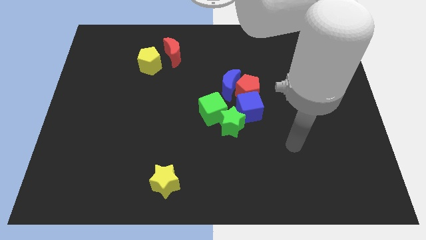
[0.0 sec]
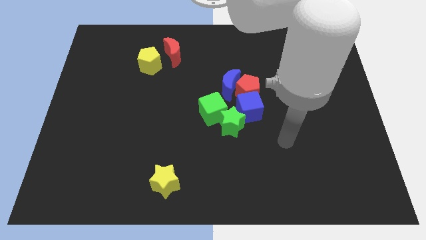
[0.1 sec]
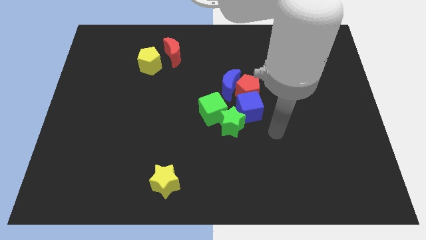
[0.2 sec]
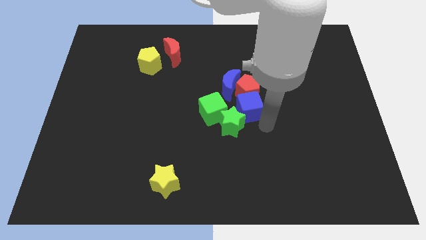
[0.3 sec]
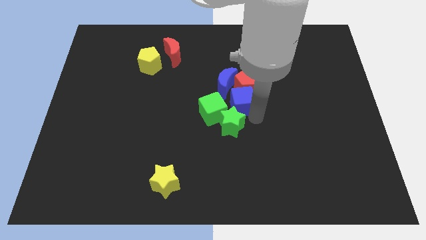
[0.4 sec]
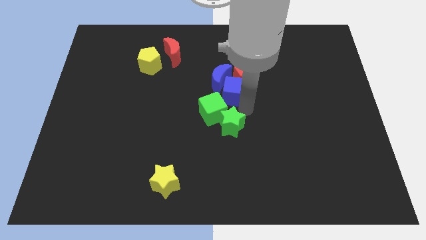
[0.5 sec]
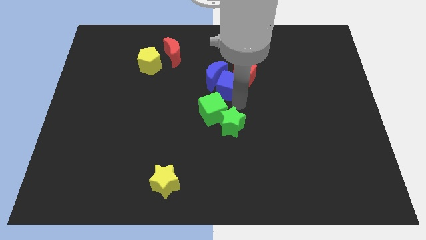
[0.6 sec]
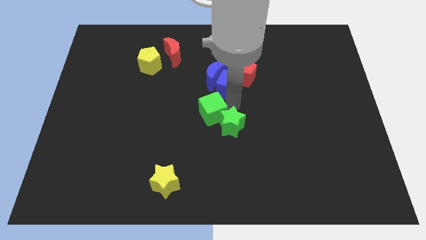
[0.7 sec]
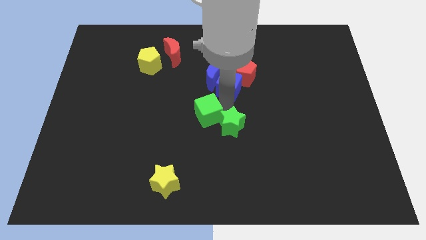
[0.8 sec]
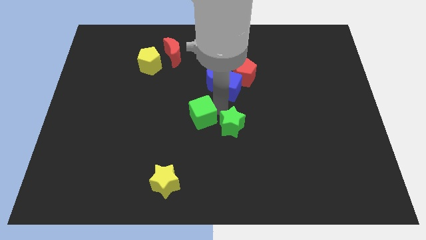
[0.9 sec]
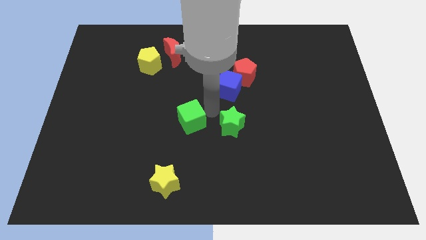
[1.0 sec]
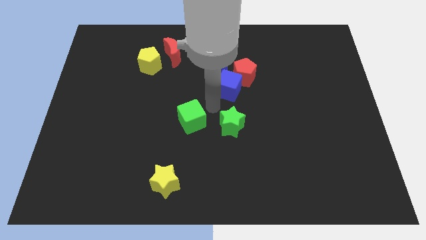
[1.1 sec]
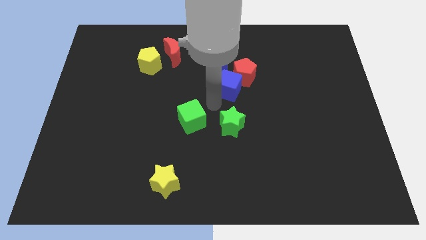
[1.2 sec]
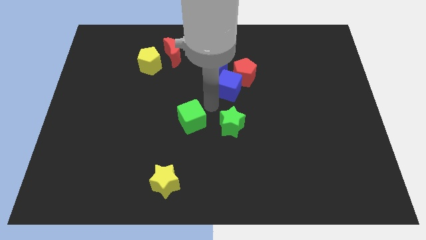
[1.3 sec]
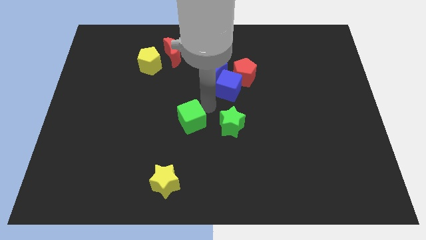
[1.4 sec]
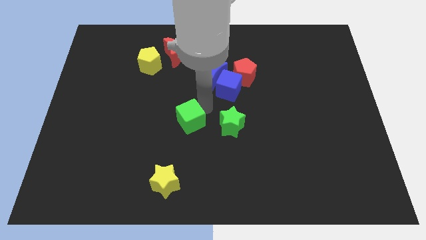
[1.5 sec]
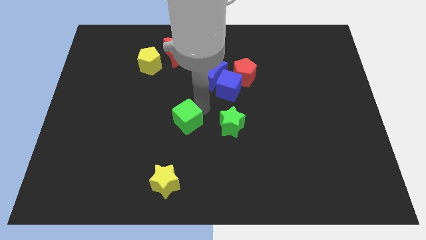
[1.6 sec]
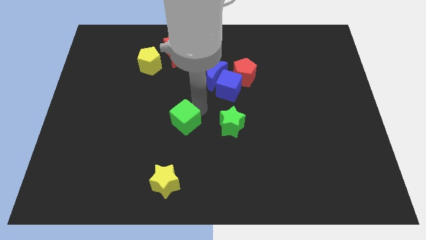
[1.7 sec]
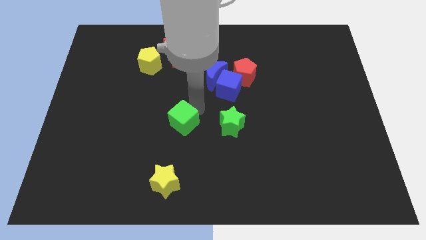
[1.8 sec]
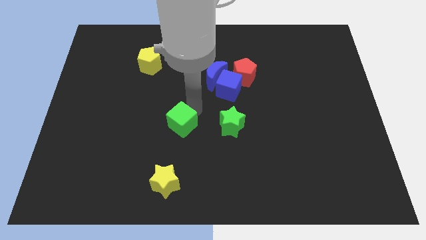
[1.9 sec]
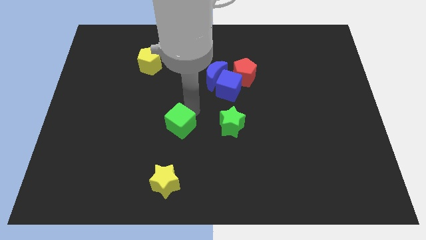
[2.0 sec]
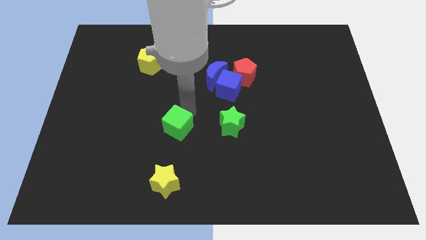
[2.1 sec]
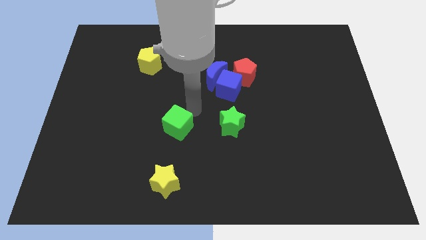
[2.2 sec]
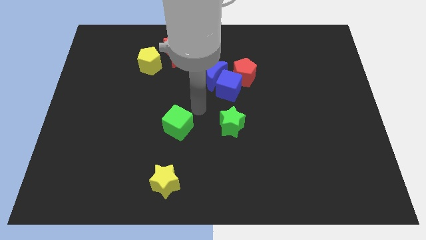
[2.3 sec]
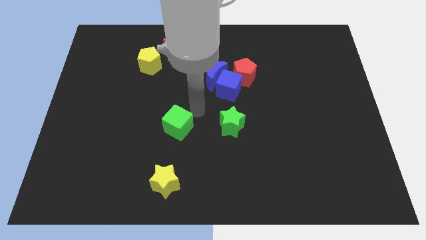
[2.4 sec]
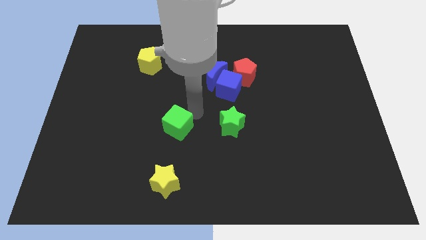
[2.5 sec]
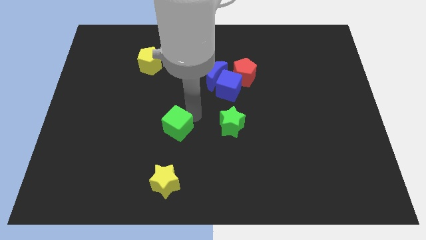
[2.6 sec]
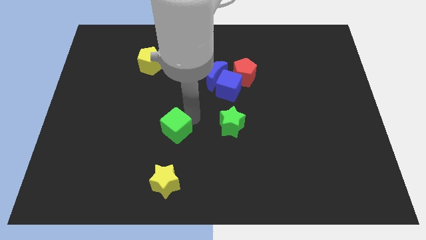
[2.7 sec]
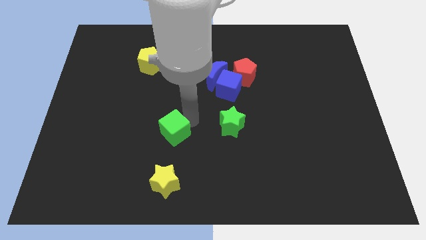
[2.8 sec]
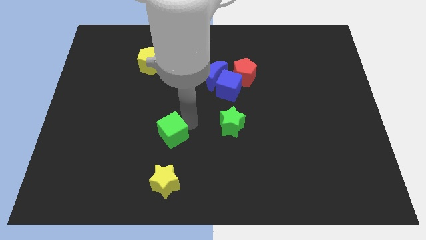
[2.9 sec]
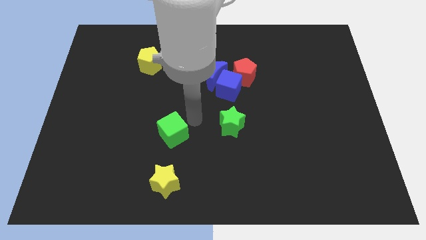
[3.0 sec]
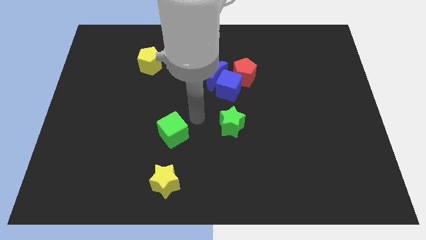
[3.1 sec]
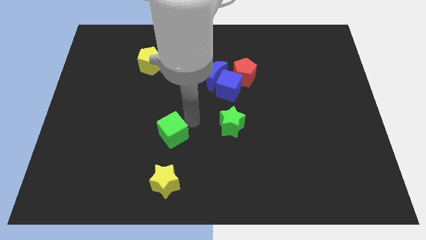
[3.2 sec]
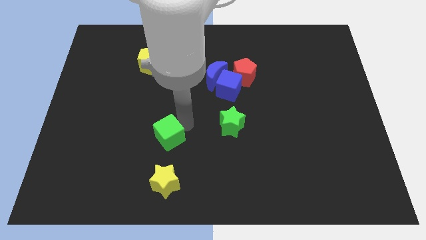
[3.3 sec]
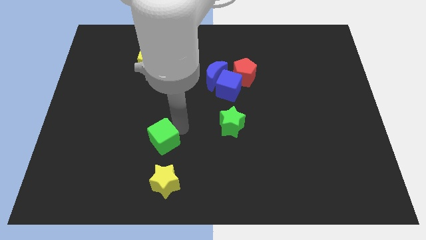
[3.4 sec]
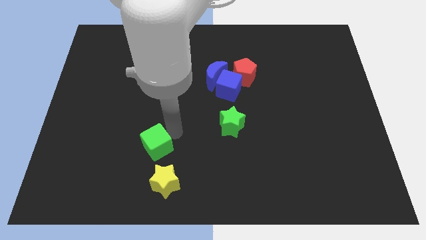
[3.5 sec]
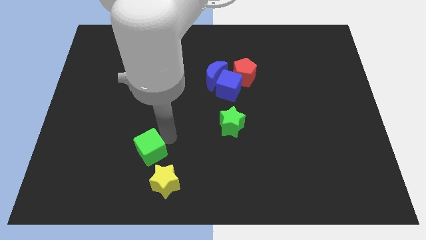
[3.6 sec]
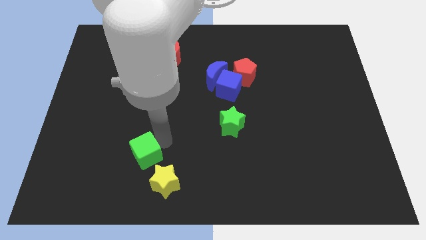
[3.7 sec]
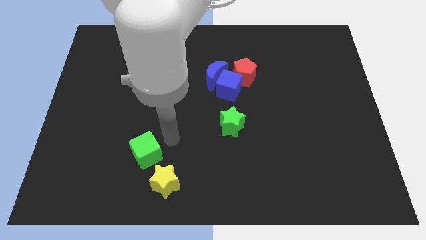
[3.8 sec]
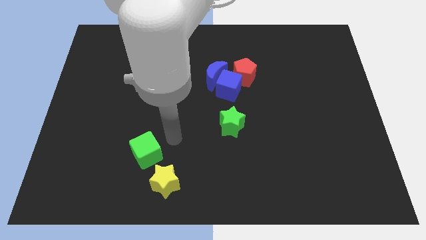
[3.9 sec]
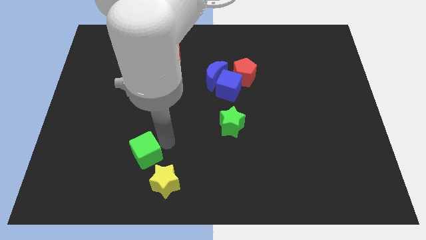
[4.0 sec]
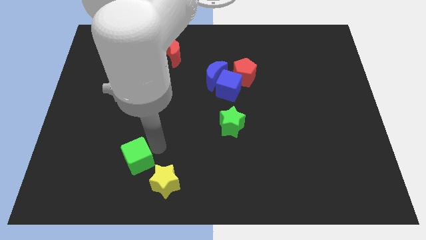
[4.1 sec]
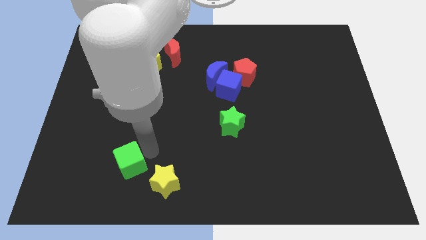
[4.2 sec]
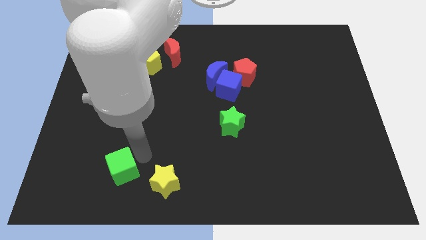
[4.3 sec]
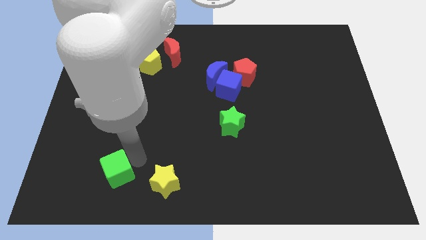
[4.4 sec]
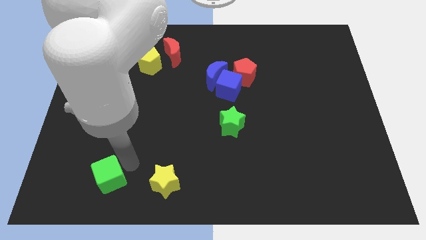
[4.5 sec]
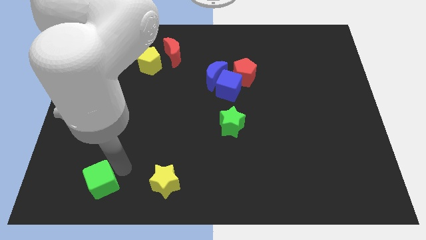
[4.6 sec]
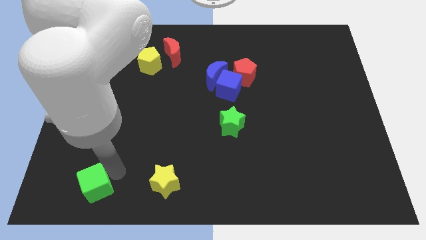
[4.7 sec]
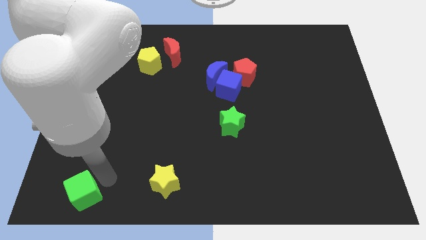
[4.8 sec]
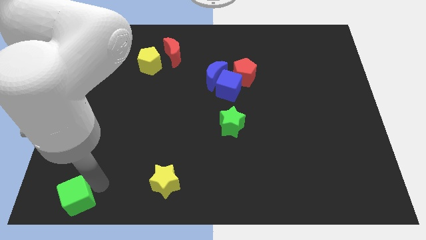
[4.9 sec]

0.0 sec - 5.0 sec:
move the green cube to the bottom left corner

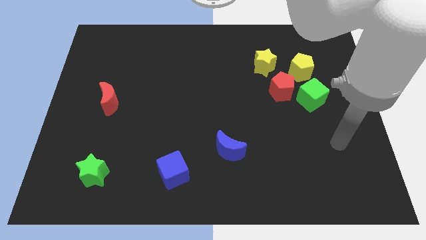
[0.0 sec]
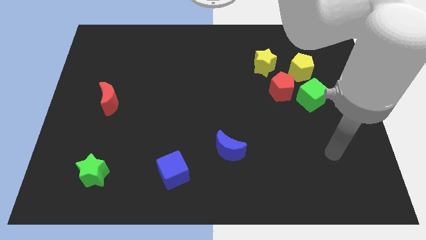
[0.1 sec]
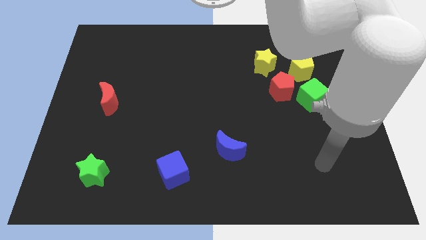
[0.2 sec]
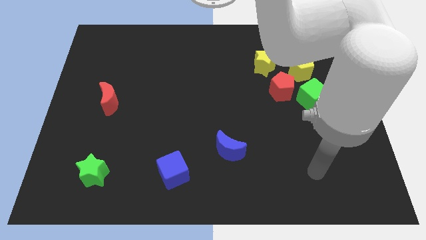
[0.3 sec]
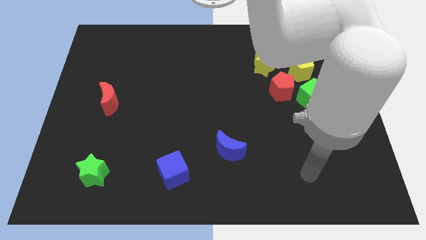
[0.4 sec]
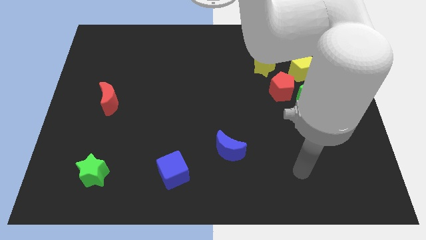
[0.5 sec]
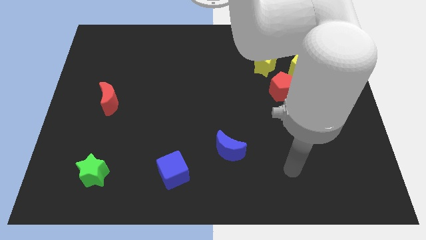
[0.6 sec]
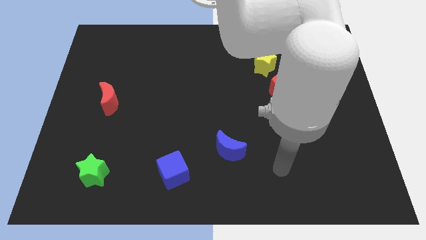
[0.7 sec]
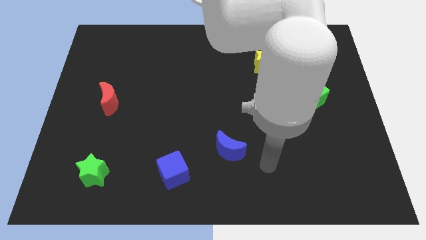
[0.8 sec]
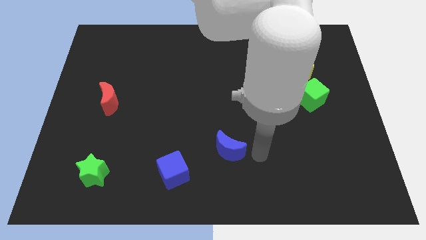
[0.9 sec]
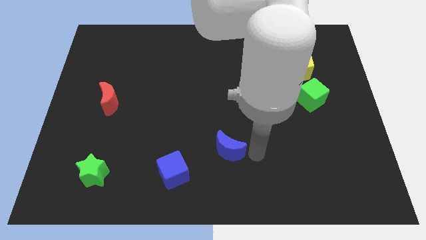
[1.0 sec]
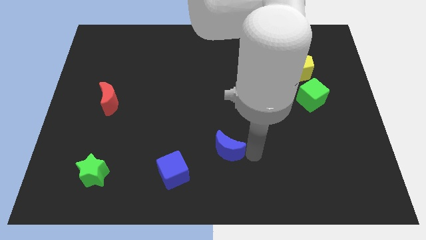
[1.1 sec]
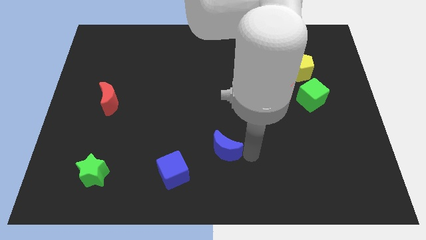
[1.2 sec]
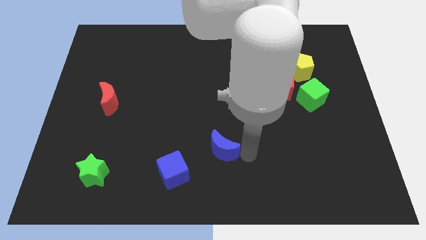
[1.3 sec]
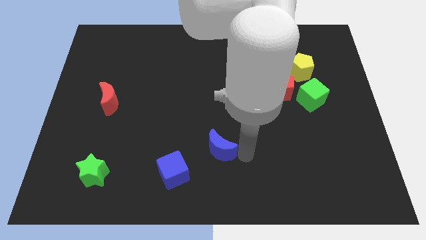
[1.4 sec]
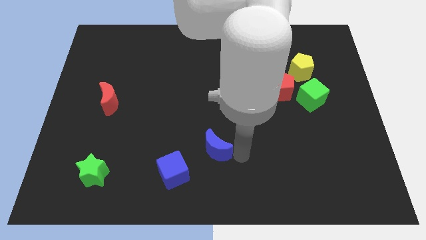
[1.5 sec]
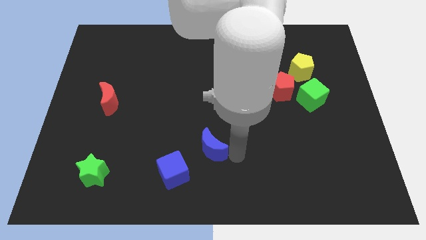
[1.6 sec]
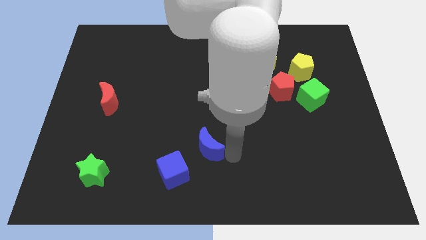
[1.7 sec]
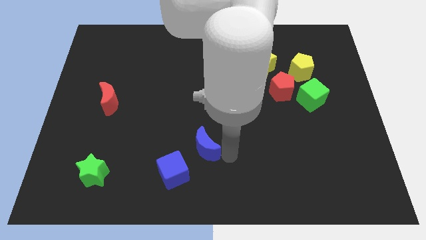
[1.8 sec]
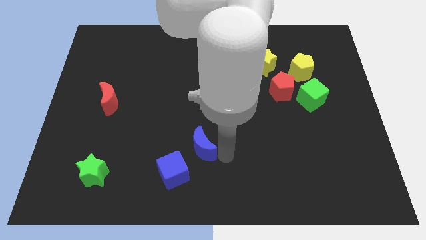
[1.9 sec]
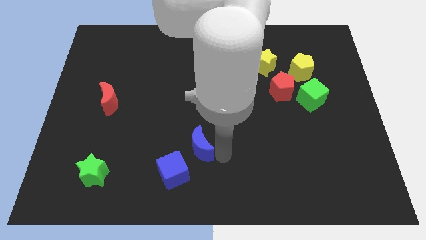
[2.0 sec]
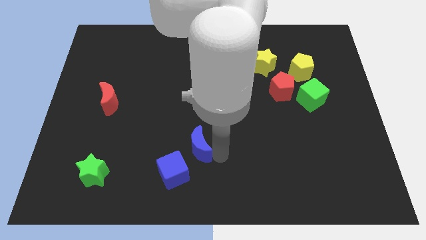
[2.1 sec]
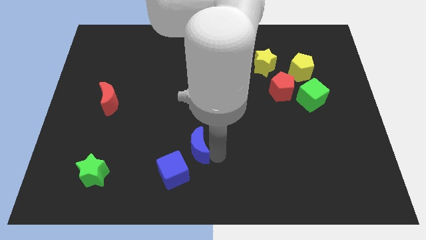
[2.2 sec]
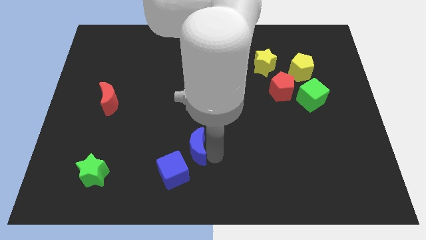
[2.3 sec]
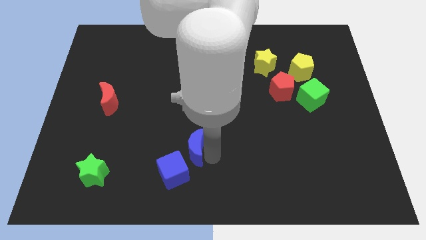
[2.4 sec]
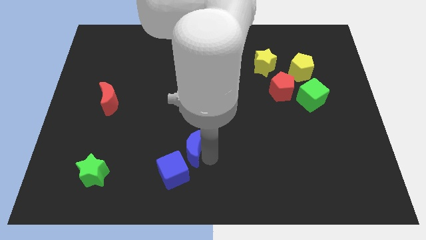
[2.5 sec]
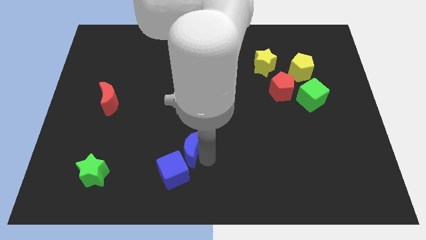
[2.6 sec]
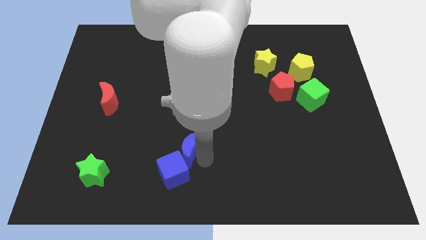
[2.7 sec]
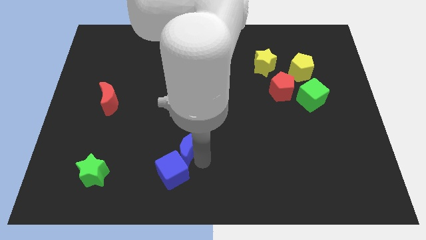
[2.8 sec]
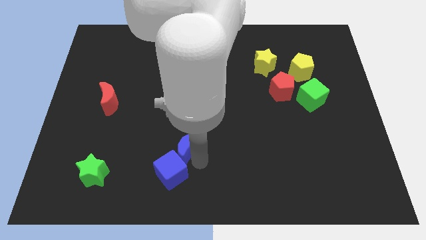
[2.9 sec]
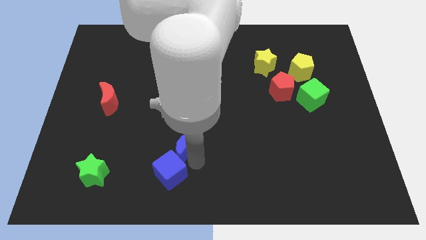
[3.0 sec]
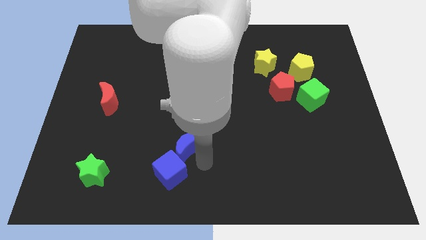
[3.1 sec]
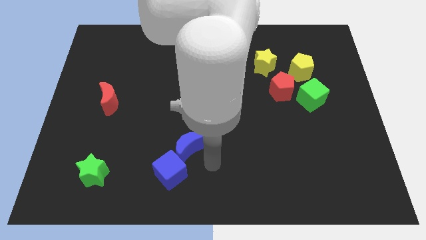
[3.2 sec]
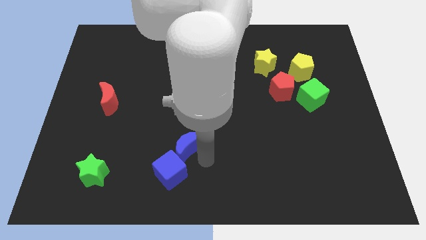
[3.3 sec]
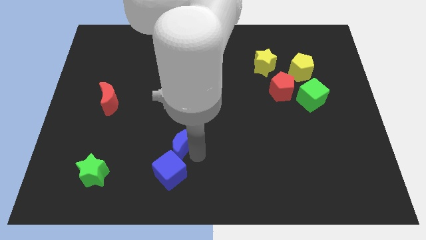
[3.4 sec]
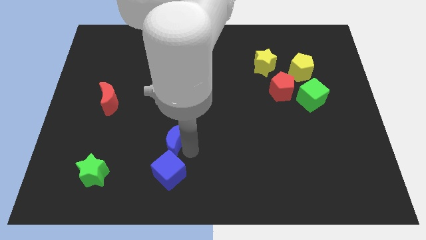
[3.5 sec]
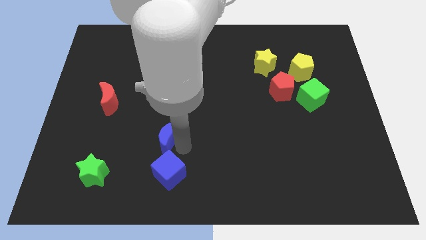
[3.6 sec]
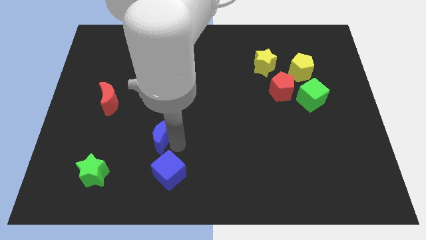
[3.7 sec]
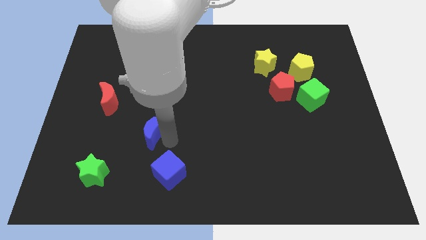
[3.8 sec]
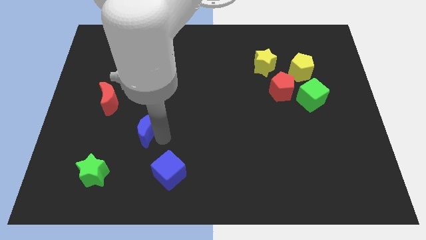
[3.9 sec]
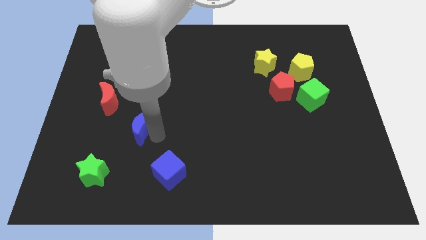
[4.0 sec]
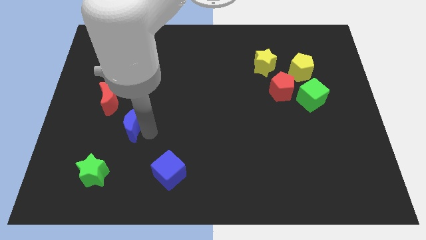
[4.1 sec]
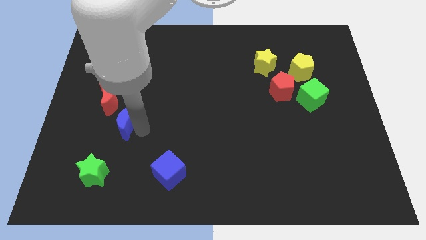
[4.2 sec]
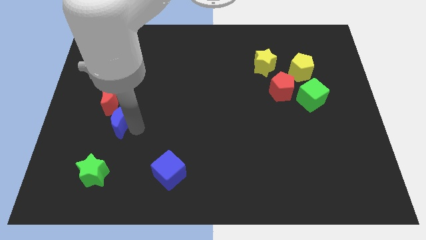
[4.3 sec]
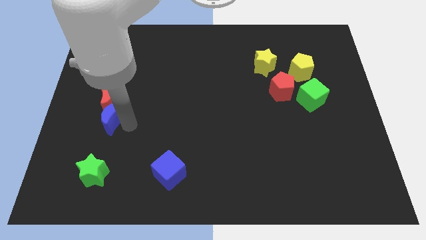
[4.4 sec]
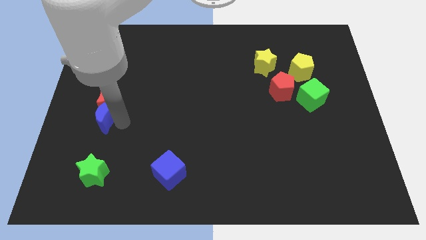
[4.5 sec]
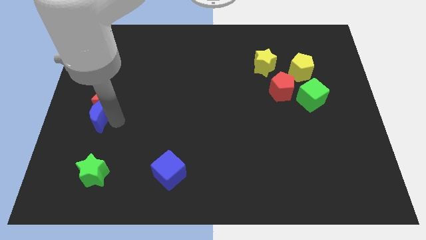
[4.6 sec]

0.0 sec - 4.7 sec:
push the blue moon to the left side of the board
